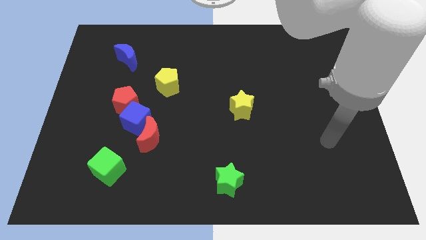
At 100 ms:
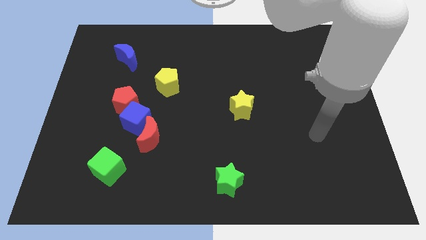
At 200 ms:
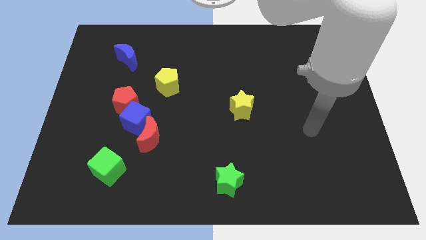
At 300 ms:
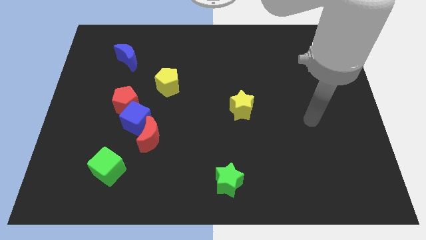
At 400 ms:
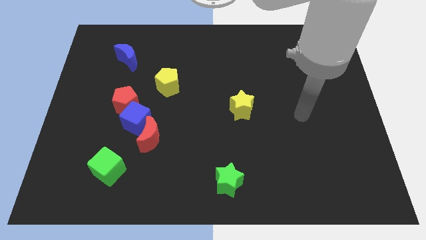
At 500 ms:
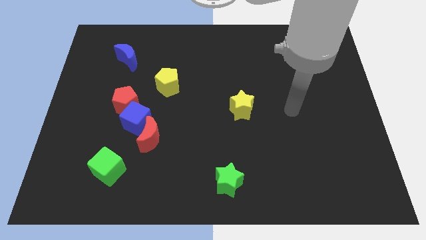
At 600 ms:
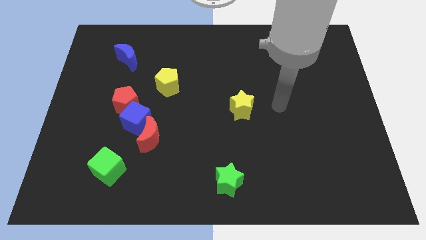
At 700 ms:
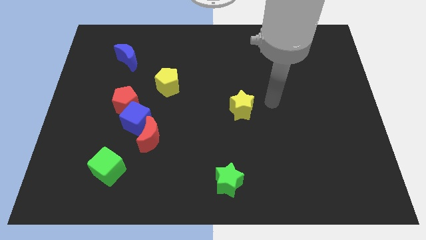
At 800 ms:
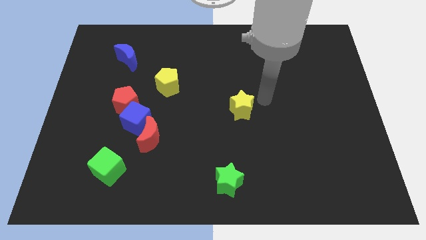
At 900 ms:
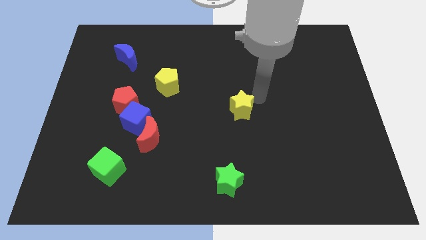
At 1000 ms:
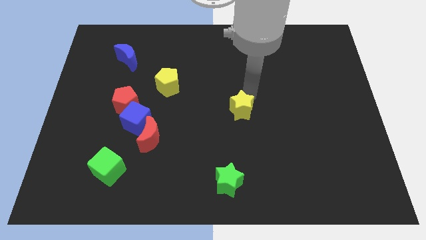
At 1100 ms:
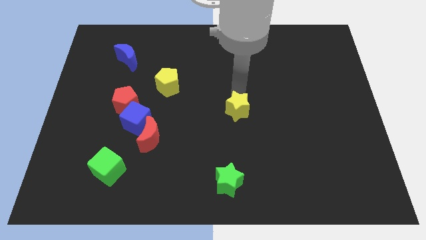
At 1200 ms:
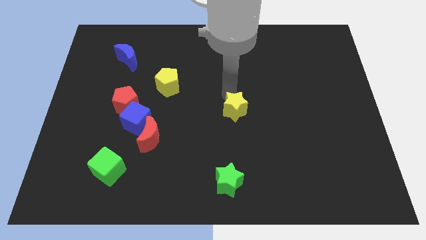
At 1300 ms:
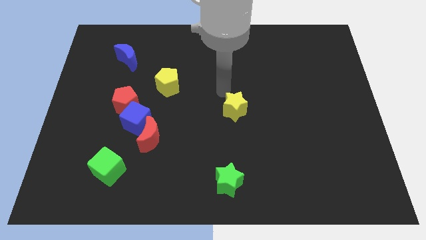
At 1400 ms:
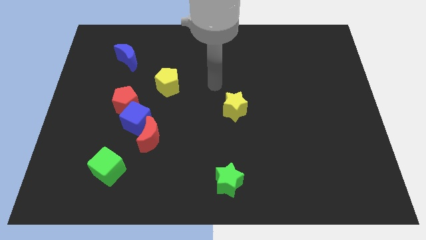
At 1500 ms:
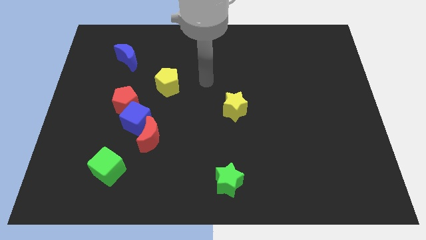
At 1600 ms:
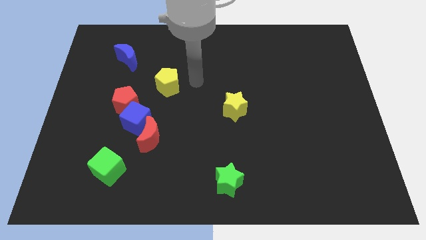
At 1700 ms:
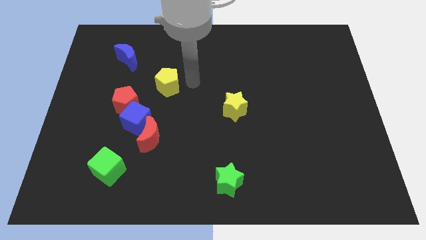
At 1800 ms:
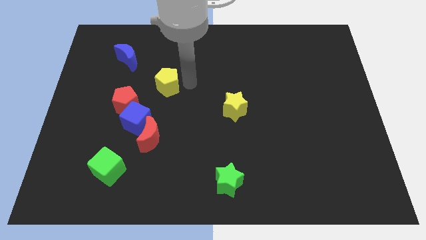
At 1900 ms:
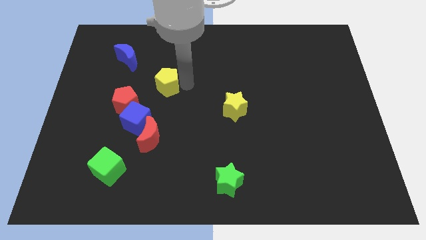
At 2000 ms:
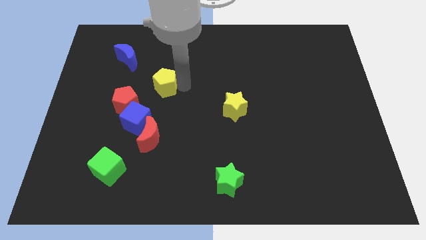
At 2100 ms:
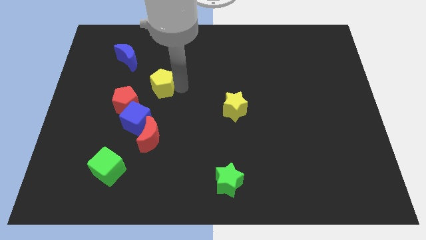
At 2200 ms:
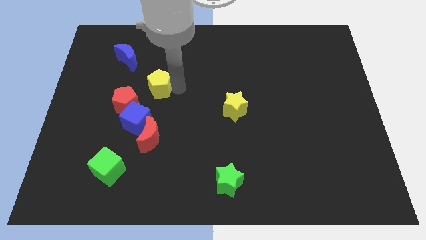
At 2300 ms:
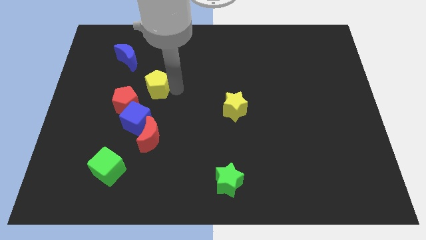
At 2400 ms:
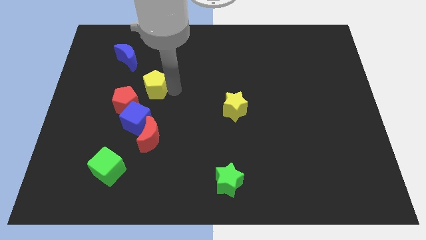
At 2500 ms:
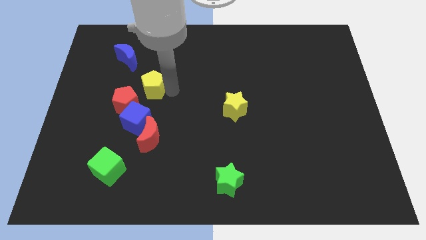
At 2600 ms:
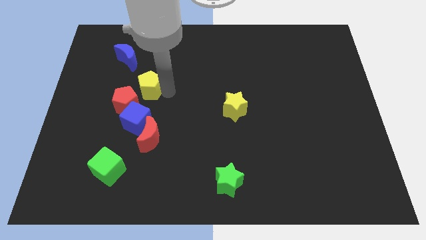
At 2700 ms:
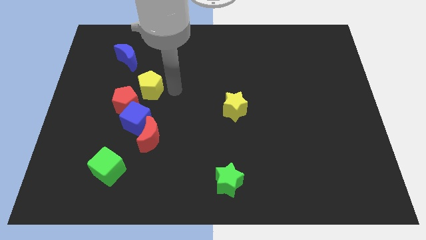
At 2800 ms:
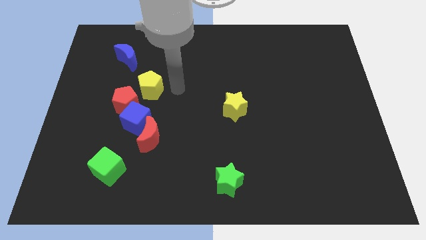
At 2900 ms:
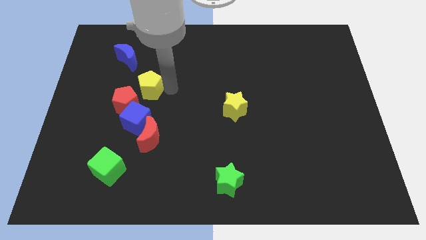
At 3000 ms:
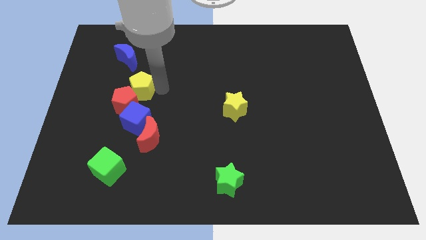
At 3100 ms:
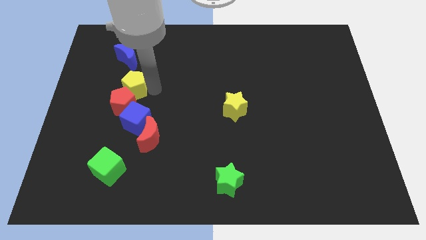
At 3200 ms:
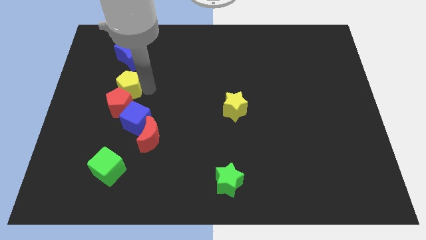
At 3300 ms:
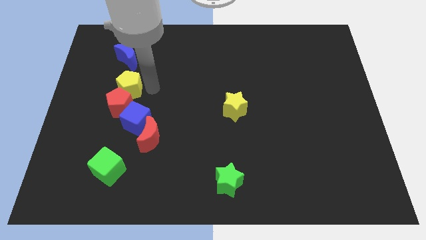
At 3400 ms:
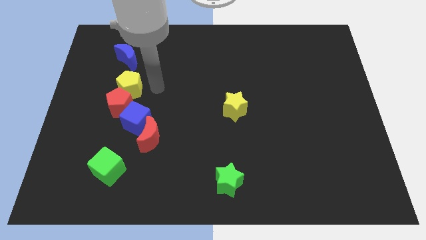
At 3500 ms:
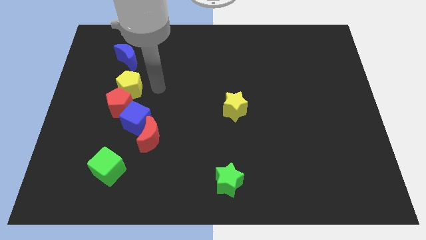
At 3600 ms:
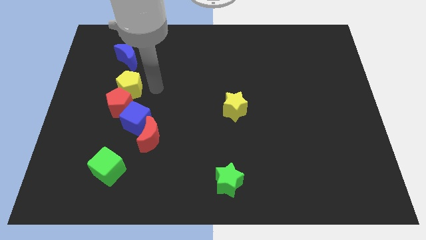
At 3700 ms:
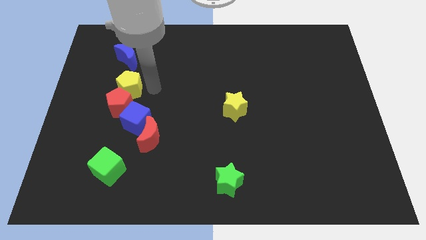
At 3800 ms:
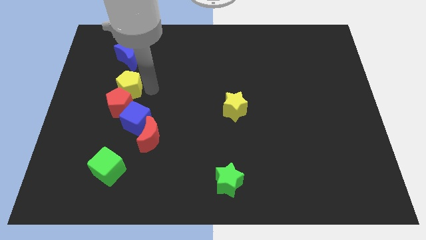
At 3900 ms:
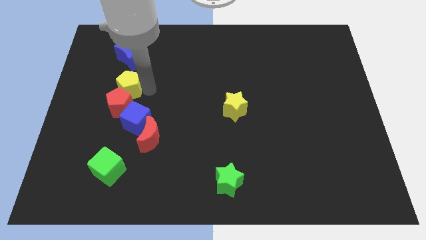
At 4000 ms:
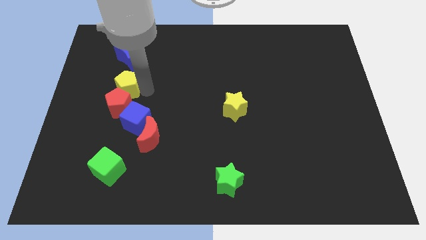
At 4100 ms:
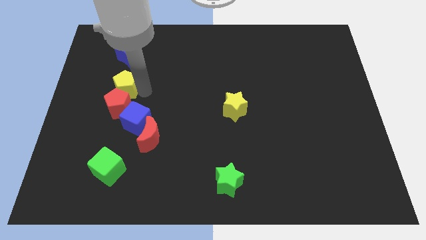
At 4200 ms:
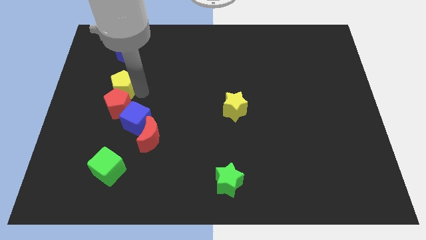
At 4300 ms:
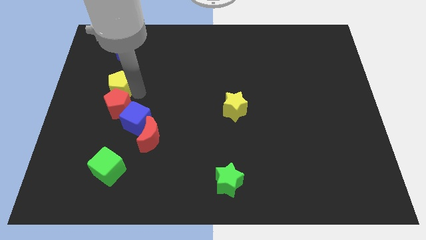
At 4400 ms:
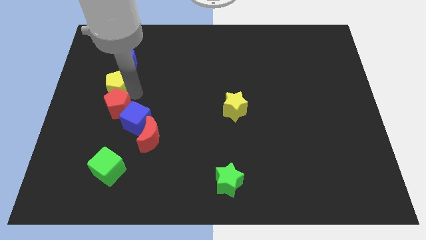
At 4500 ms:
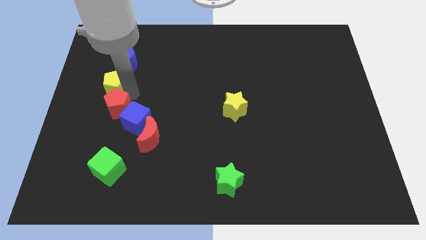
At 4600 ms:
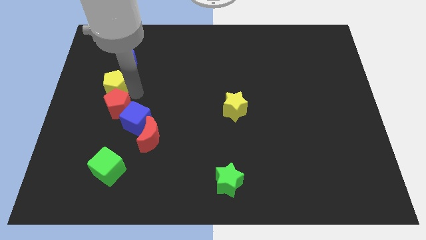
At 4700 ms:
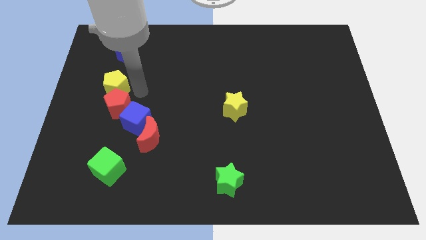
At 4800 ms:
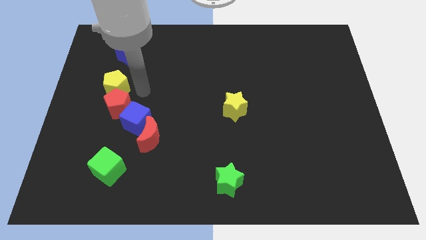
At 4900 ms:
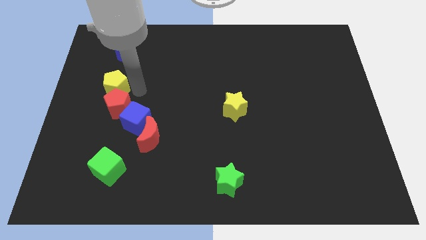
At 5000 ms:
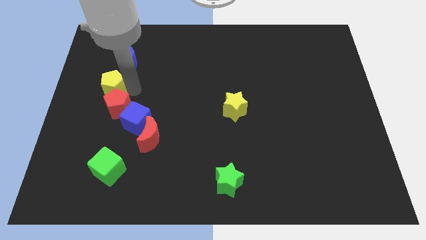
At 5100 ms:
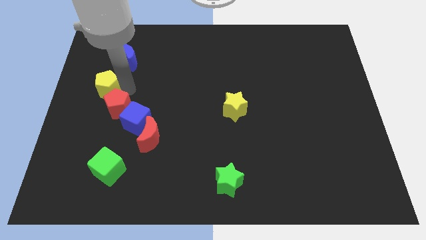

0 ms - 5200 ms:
move the yellow pentagon to the left side of the board

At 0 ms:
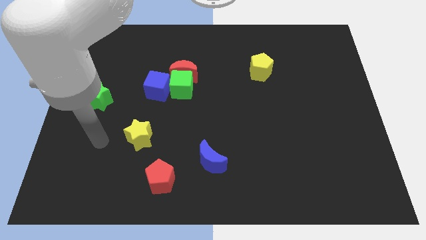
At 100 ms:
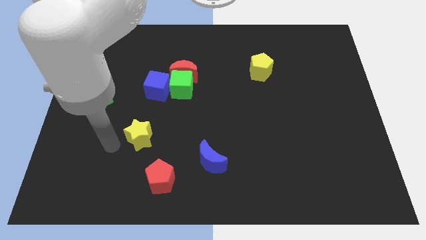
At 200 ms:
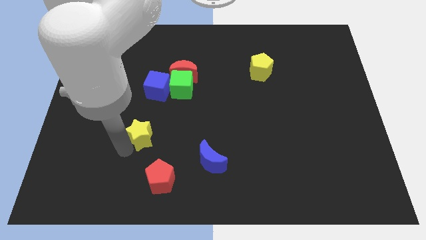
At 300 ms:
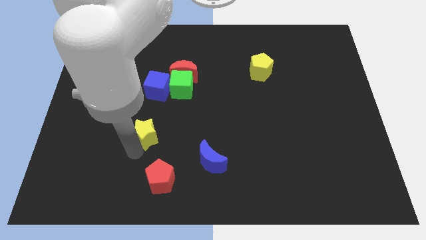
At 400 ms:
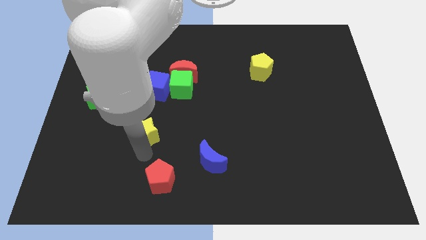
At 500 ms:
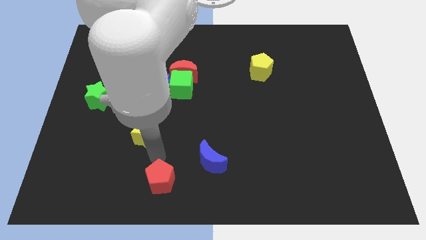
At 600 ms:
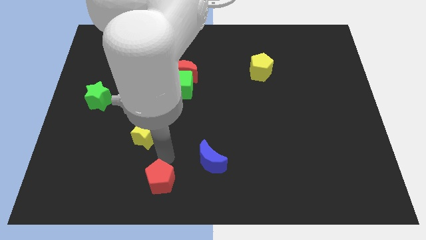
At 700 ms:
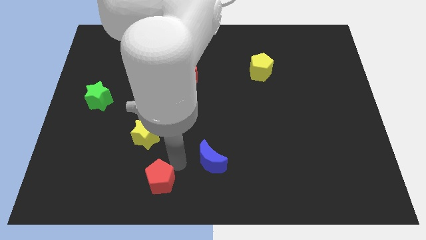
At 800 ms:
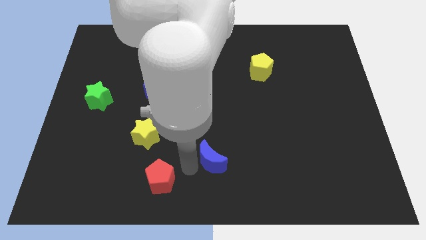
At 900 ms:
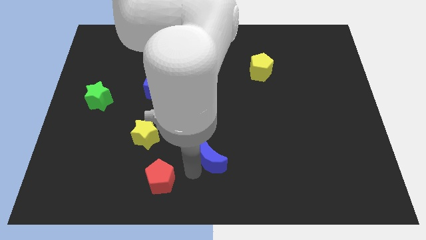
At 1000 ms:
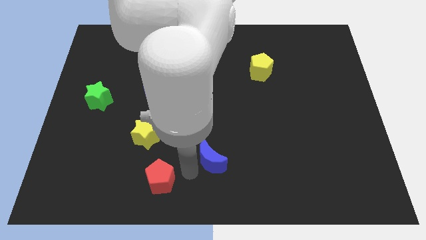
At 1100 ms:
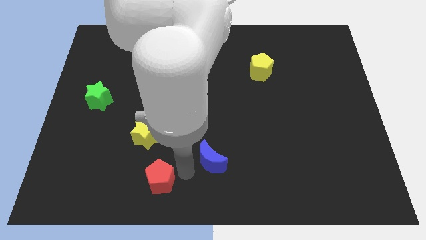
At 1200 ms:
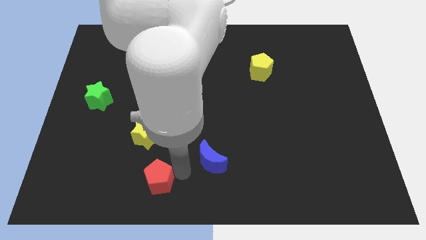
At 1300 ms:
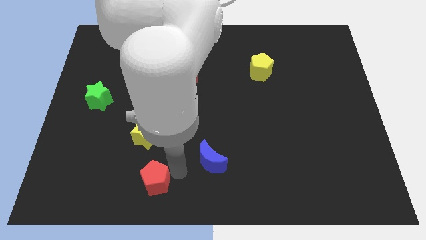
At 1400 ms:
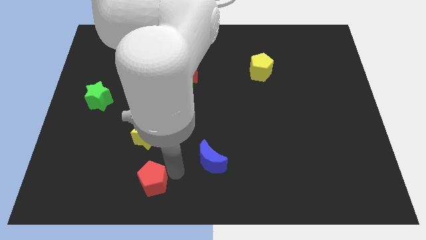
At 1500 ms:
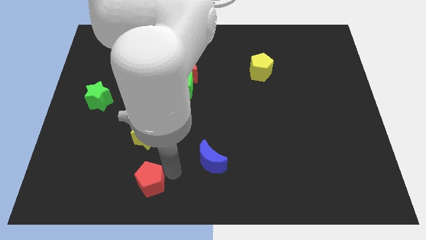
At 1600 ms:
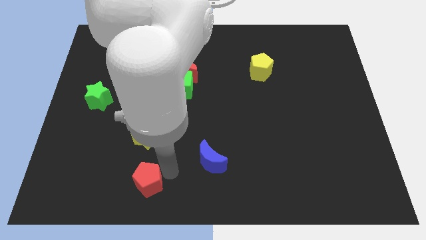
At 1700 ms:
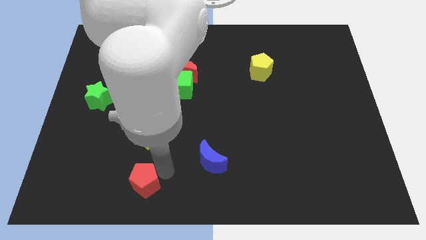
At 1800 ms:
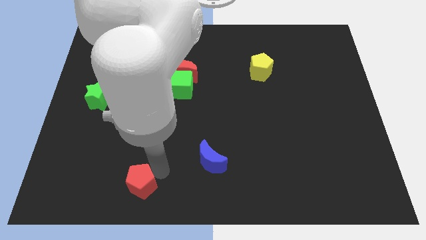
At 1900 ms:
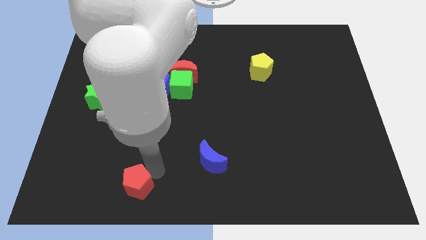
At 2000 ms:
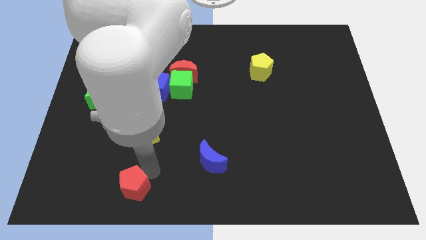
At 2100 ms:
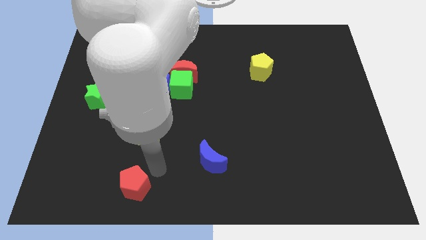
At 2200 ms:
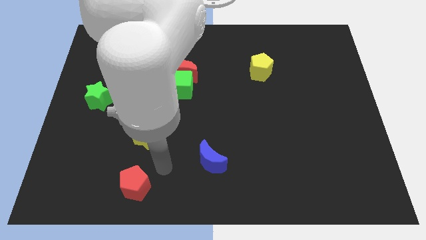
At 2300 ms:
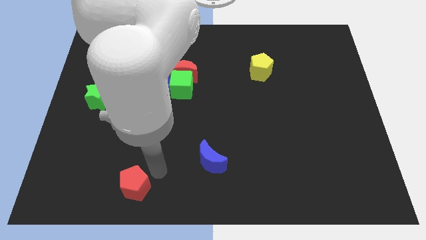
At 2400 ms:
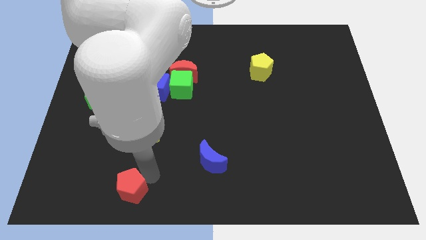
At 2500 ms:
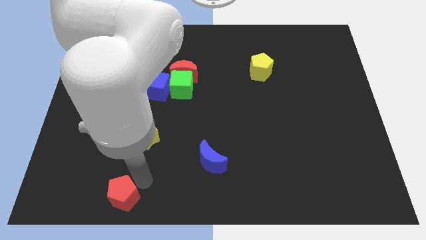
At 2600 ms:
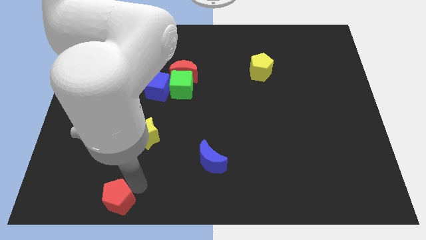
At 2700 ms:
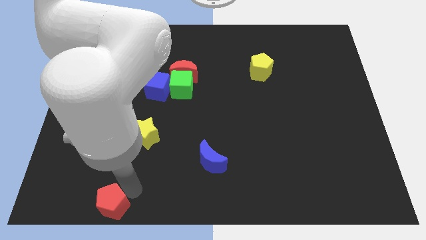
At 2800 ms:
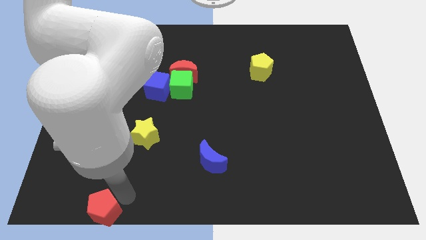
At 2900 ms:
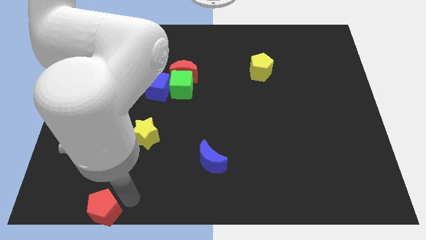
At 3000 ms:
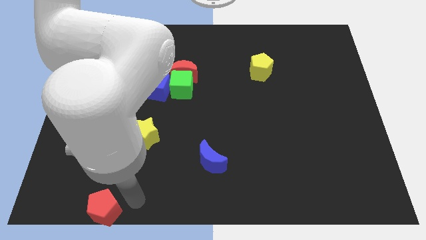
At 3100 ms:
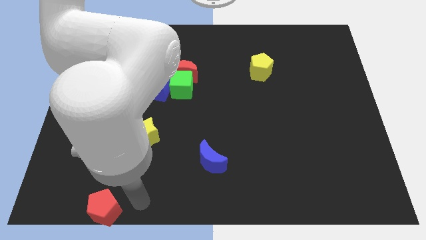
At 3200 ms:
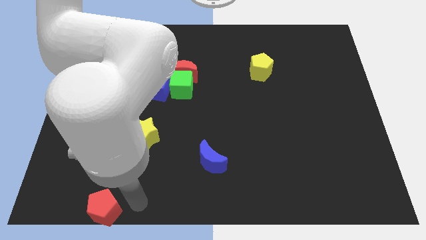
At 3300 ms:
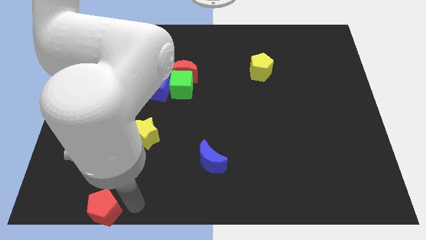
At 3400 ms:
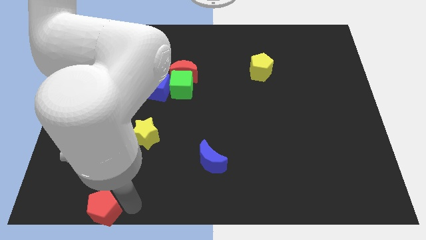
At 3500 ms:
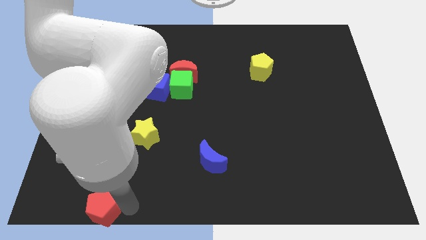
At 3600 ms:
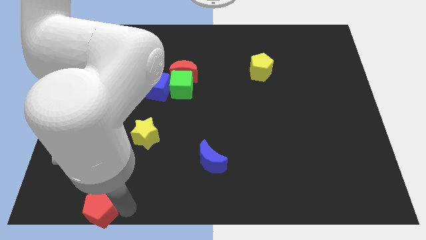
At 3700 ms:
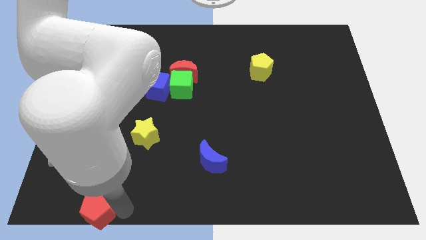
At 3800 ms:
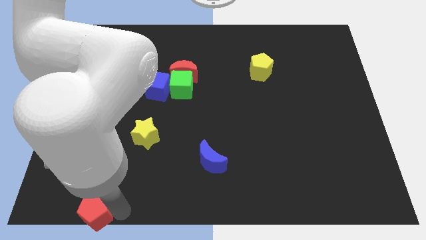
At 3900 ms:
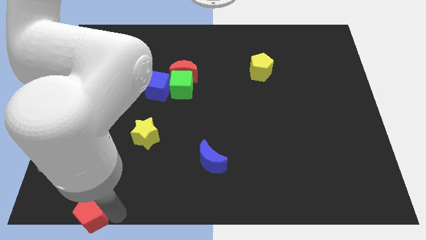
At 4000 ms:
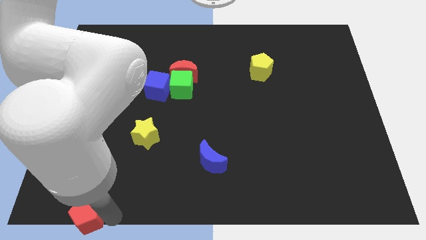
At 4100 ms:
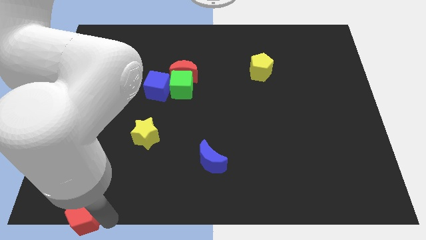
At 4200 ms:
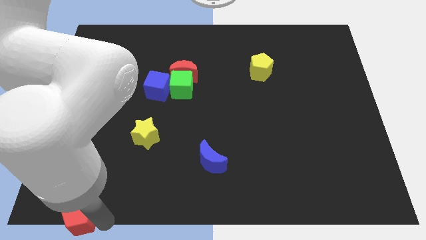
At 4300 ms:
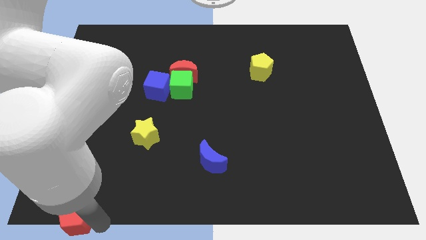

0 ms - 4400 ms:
push the red pentagon to the bottom left corner
